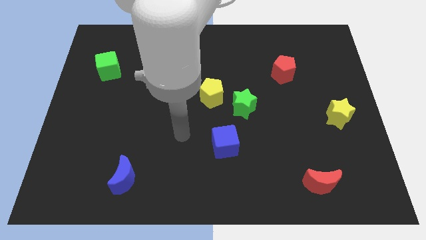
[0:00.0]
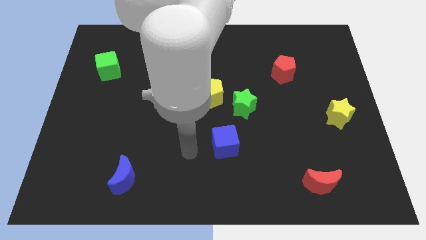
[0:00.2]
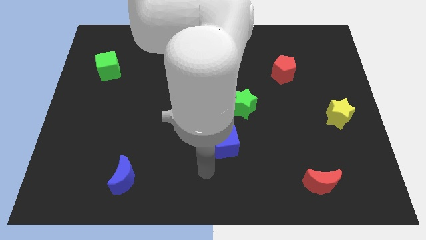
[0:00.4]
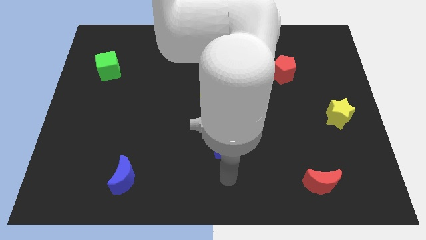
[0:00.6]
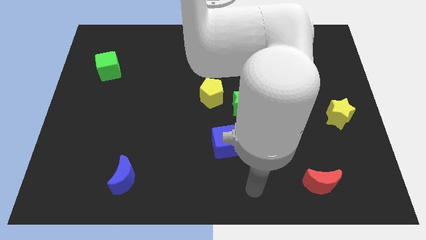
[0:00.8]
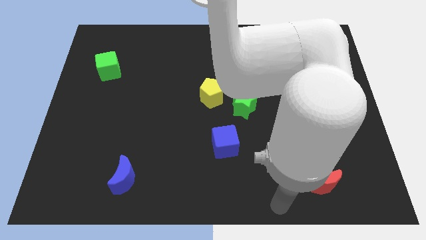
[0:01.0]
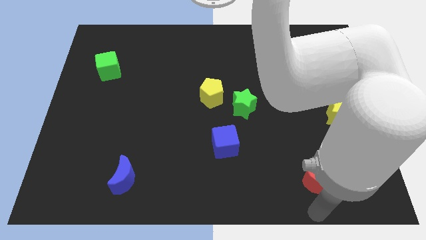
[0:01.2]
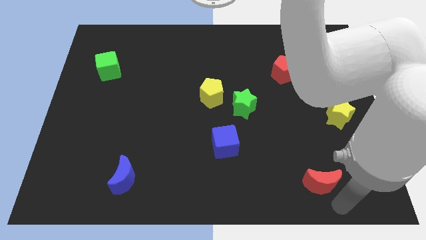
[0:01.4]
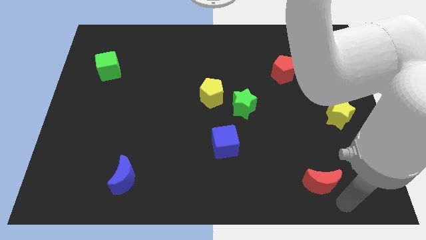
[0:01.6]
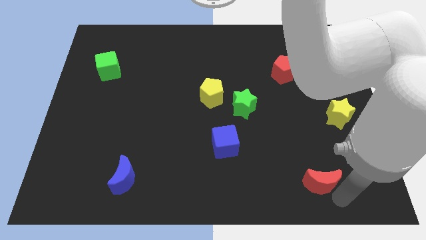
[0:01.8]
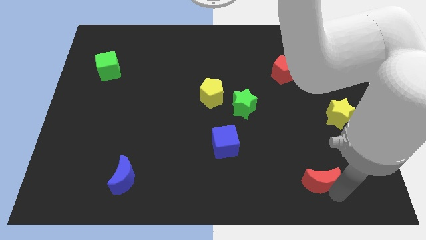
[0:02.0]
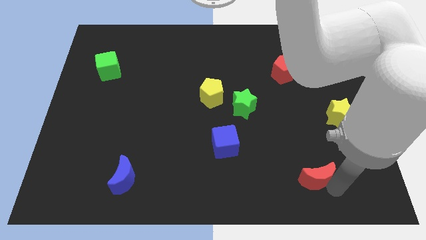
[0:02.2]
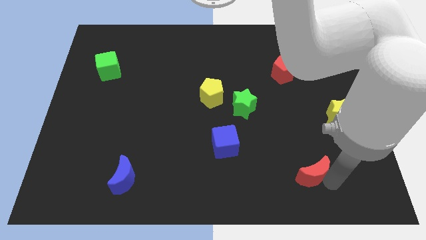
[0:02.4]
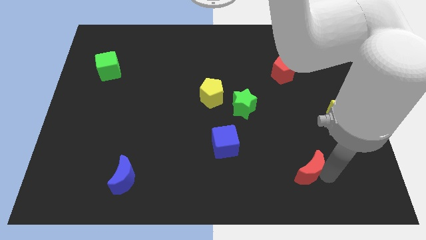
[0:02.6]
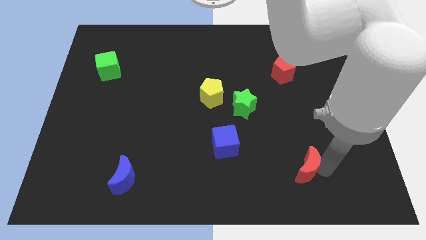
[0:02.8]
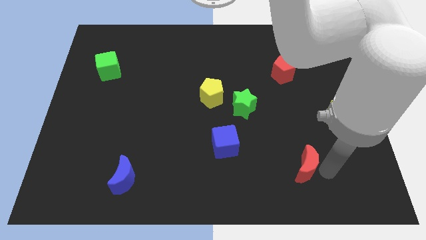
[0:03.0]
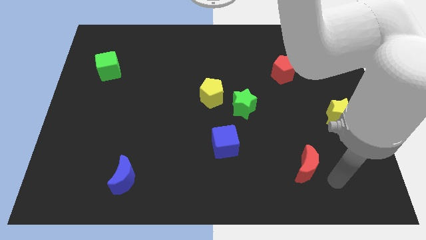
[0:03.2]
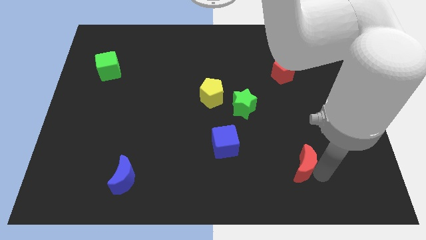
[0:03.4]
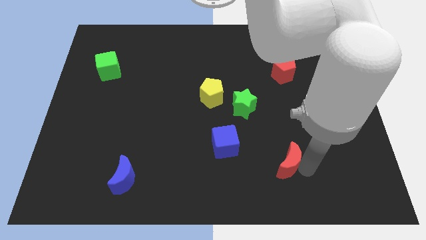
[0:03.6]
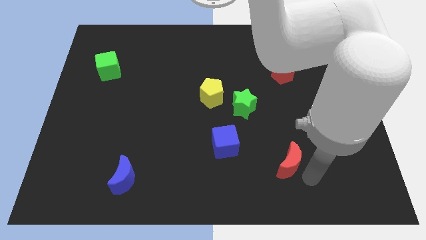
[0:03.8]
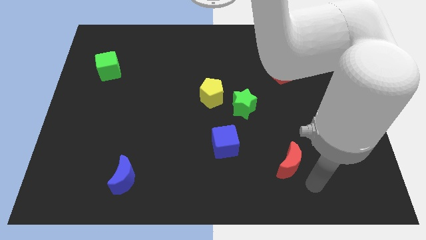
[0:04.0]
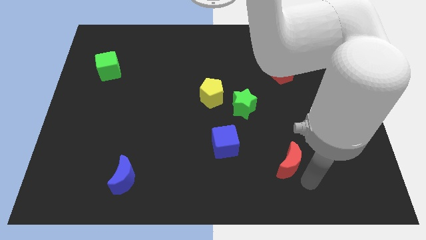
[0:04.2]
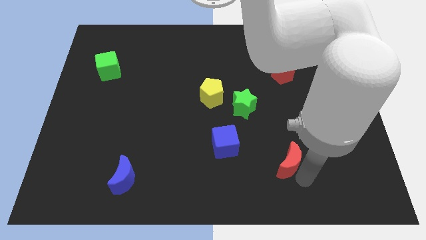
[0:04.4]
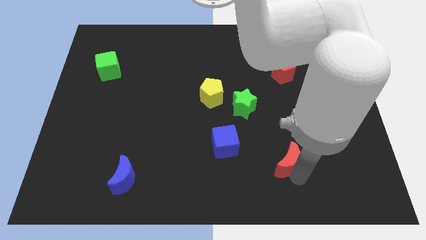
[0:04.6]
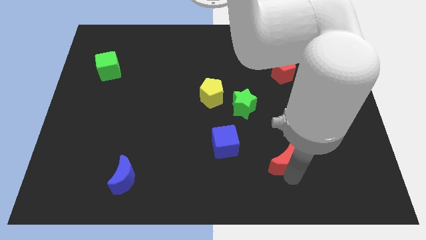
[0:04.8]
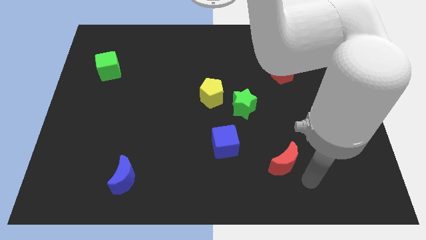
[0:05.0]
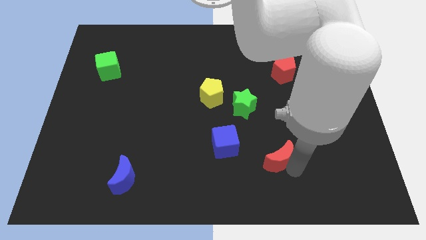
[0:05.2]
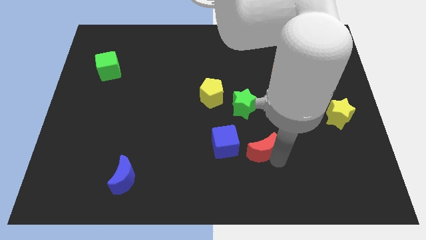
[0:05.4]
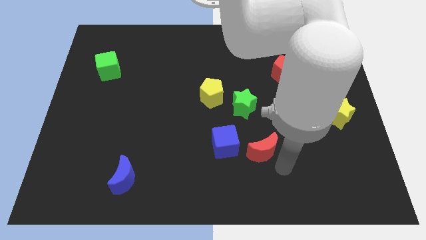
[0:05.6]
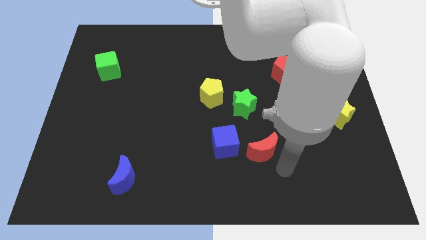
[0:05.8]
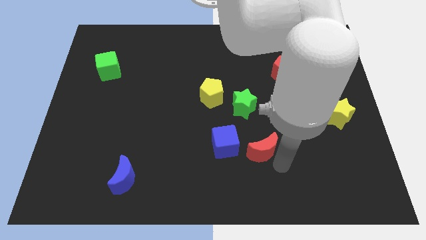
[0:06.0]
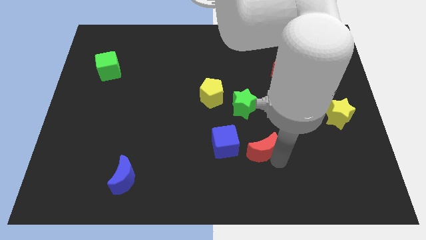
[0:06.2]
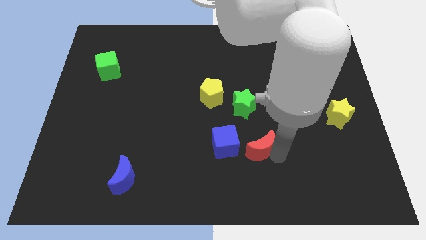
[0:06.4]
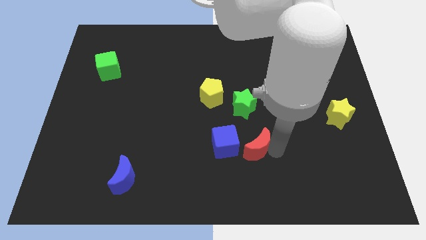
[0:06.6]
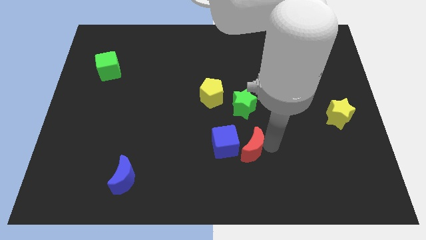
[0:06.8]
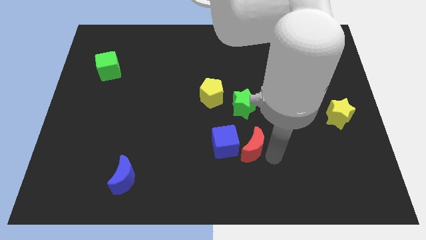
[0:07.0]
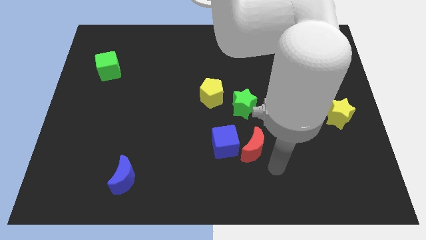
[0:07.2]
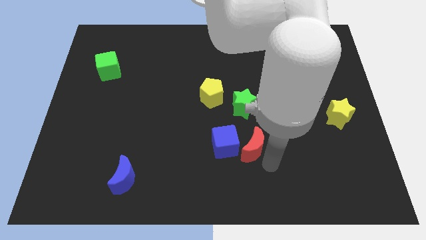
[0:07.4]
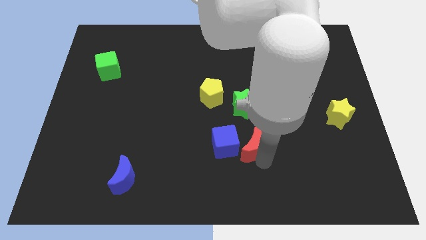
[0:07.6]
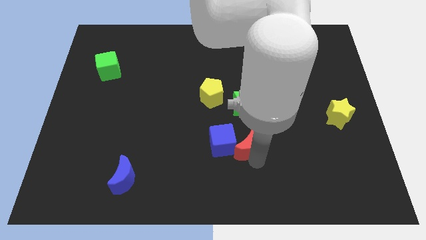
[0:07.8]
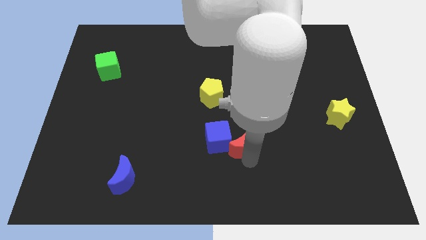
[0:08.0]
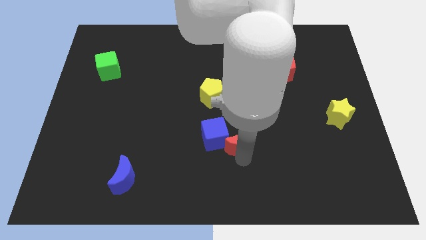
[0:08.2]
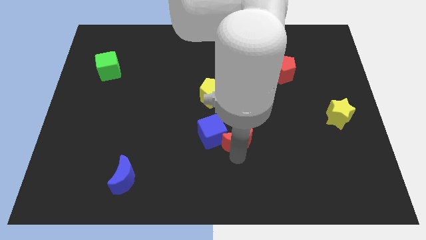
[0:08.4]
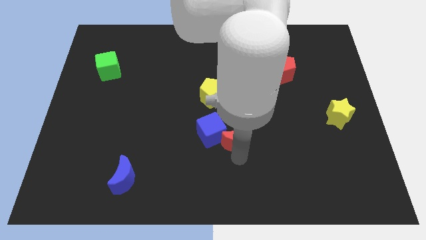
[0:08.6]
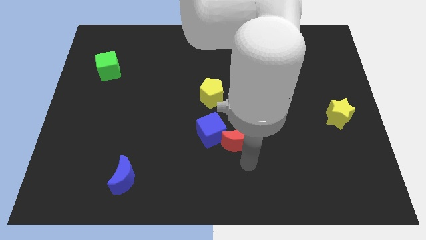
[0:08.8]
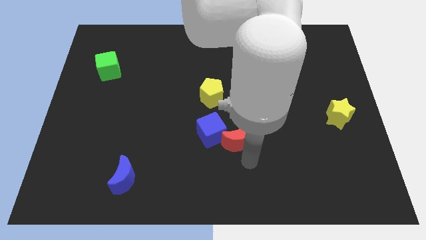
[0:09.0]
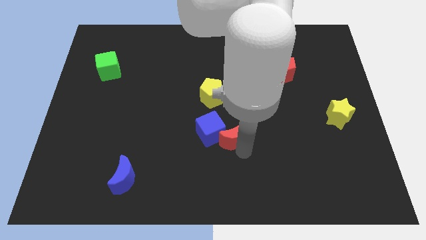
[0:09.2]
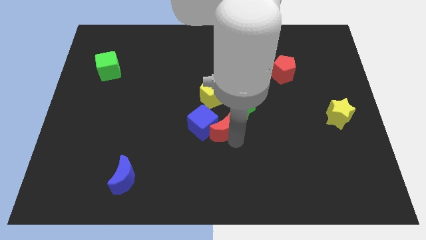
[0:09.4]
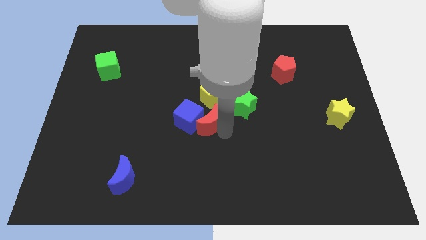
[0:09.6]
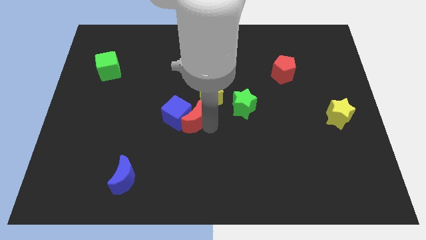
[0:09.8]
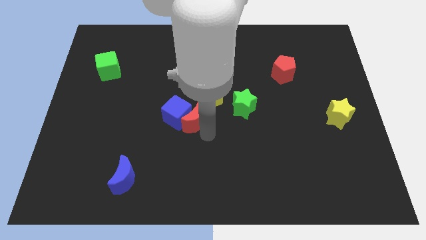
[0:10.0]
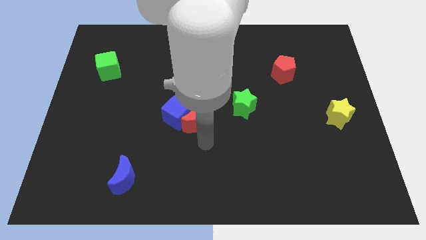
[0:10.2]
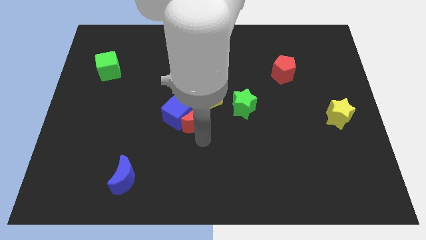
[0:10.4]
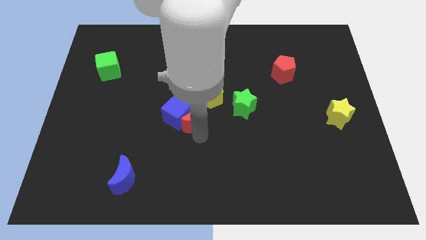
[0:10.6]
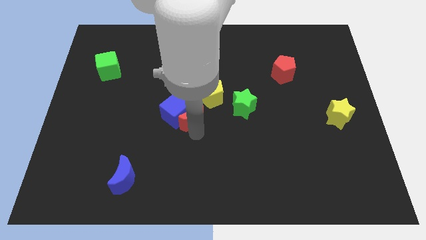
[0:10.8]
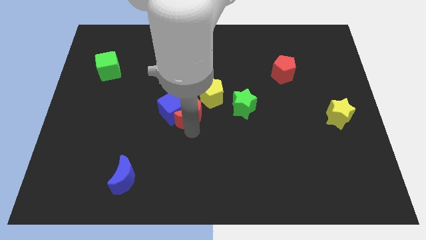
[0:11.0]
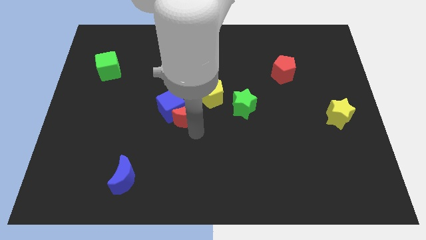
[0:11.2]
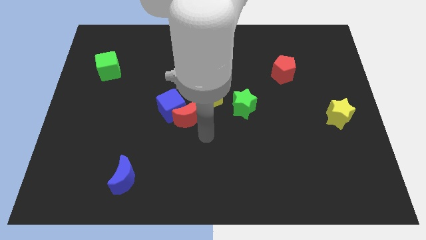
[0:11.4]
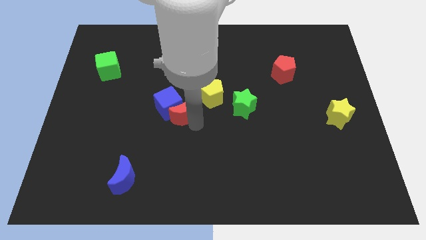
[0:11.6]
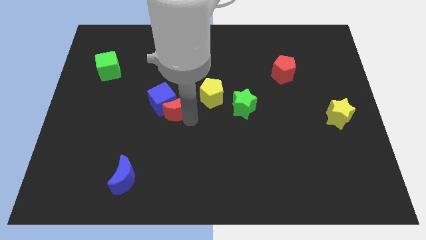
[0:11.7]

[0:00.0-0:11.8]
slide the red moon to the left side of the yellow pentagon

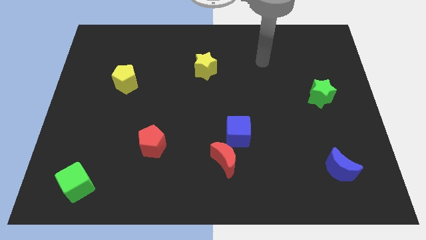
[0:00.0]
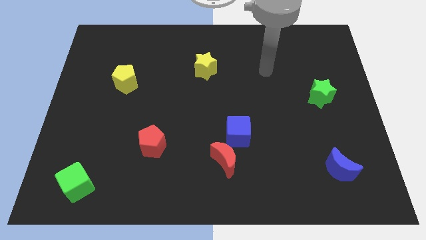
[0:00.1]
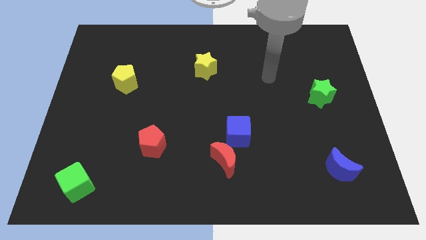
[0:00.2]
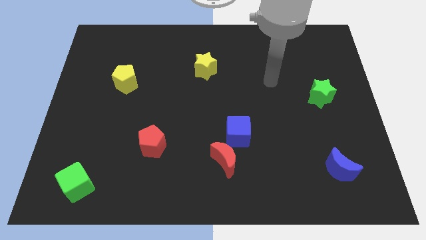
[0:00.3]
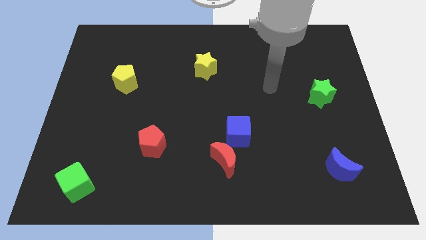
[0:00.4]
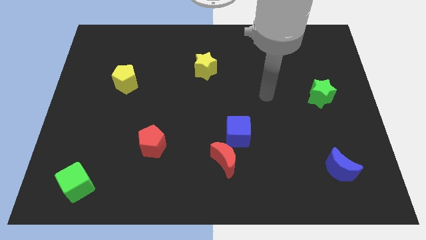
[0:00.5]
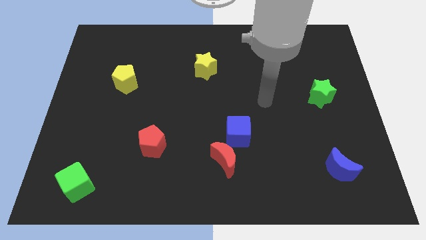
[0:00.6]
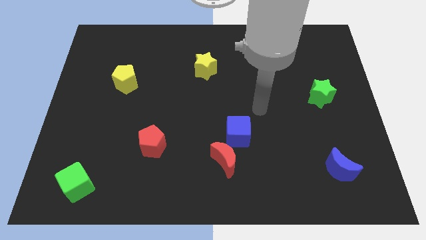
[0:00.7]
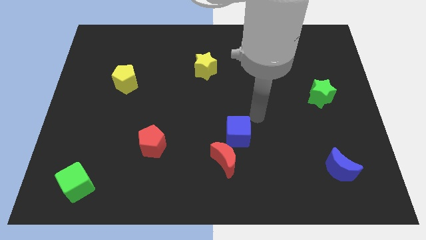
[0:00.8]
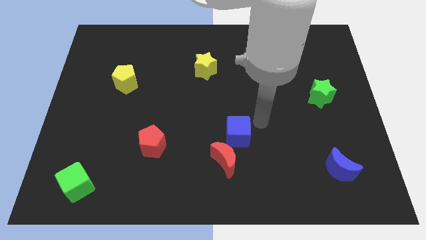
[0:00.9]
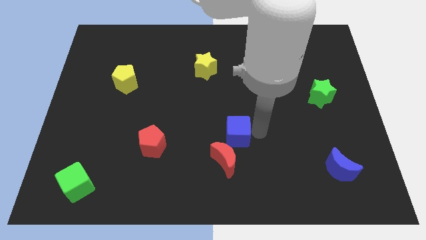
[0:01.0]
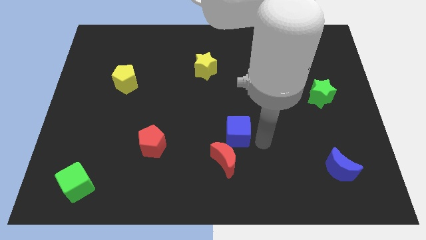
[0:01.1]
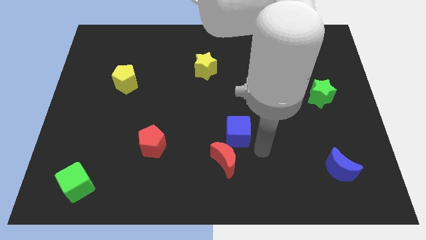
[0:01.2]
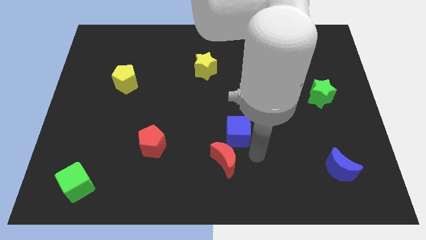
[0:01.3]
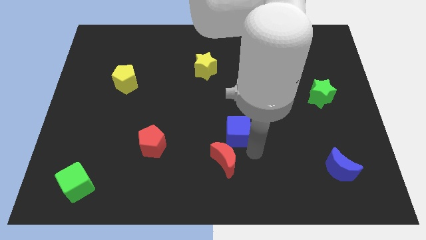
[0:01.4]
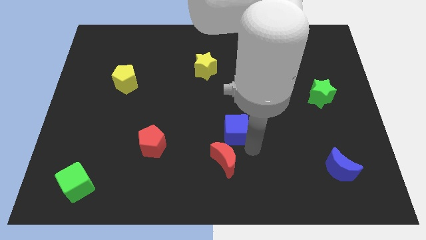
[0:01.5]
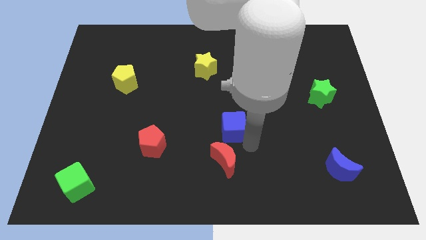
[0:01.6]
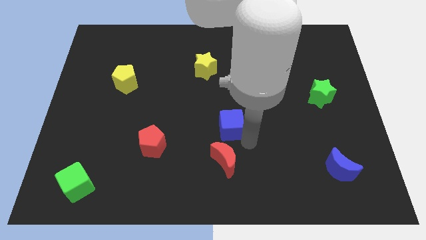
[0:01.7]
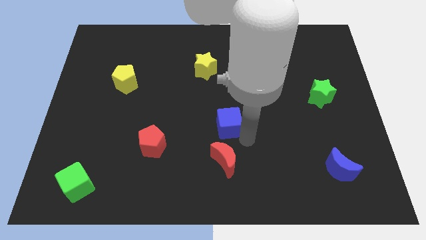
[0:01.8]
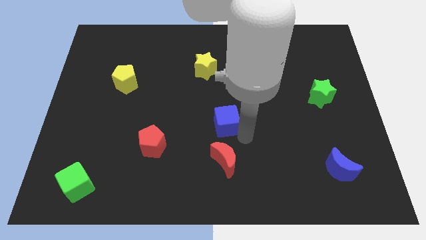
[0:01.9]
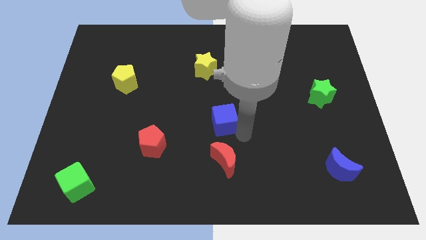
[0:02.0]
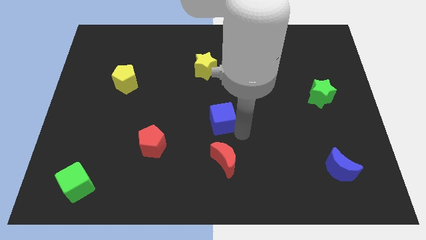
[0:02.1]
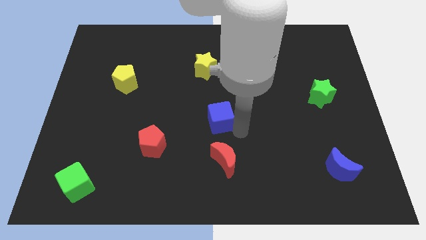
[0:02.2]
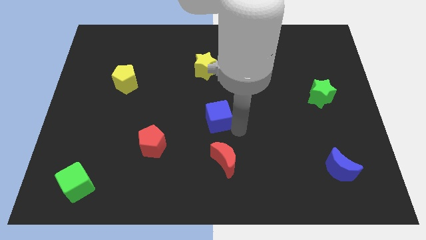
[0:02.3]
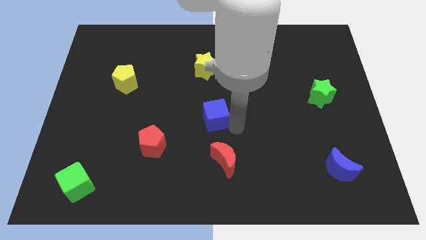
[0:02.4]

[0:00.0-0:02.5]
move the blue cube to the bottom of the yellow star

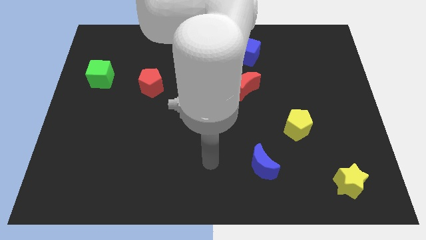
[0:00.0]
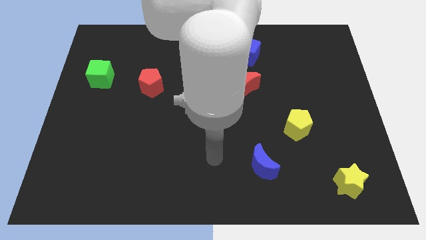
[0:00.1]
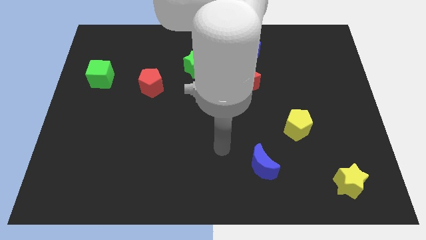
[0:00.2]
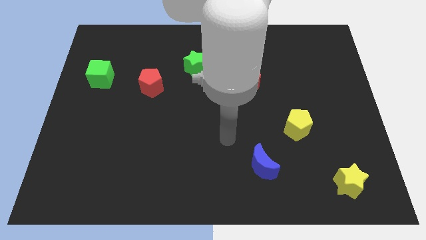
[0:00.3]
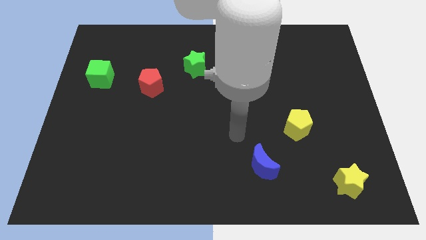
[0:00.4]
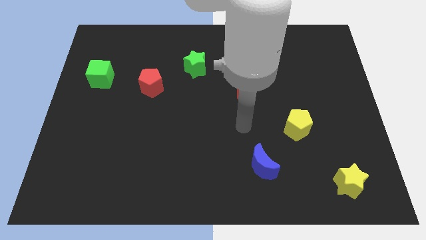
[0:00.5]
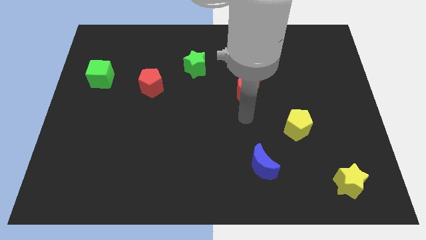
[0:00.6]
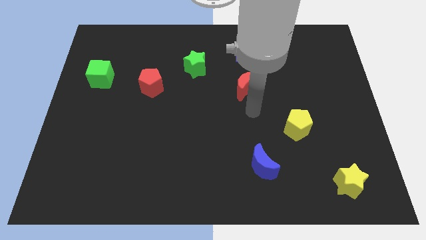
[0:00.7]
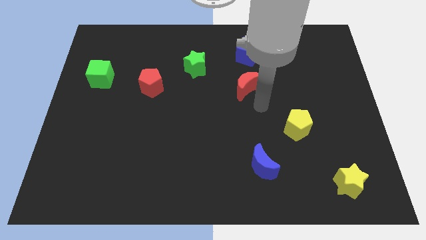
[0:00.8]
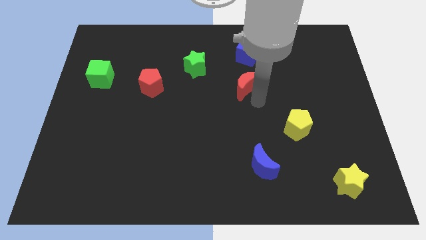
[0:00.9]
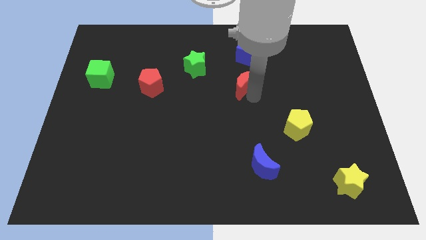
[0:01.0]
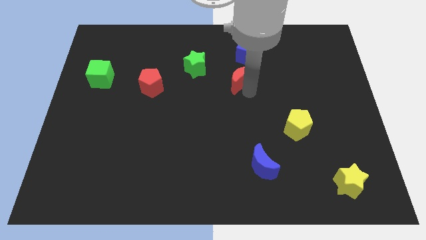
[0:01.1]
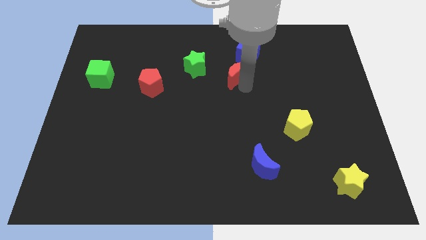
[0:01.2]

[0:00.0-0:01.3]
slide the red moon to the bottom left of the blue cube
